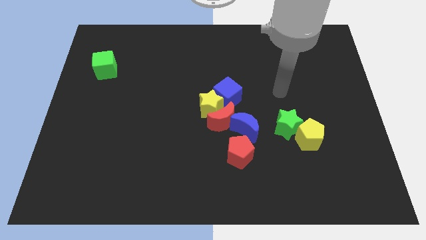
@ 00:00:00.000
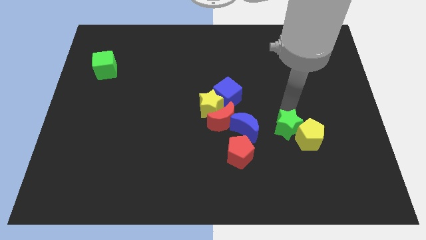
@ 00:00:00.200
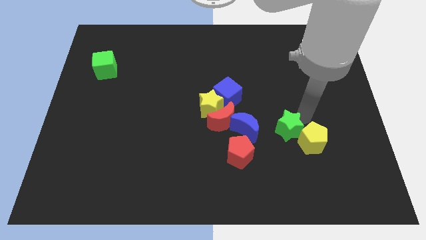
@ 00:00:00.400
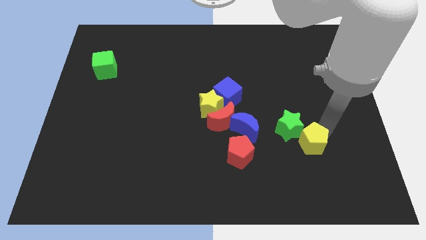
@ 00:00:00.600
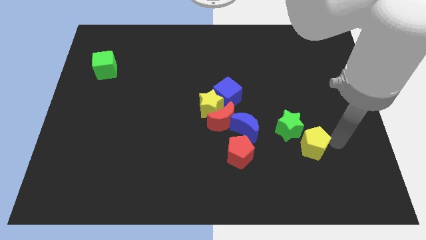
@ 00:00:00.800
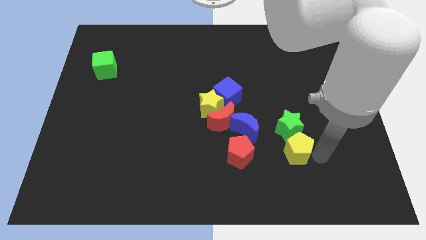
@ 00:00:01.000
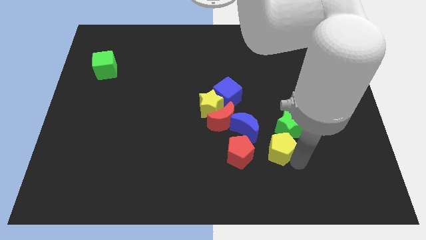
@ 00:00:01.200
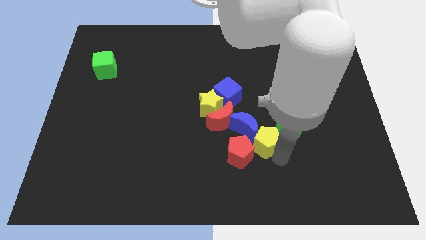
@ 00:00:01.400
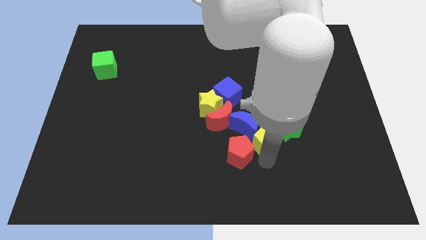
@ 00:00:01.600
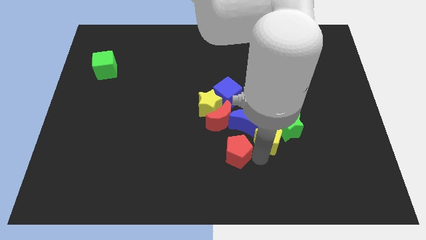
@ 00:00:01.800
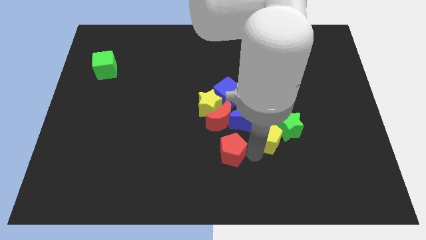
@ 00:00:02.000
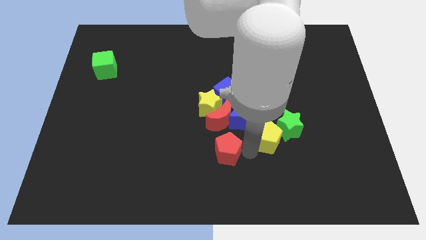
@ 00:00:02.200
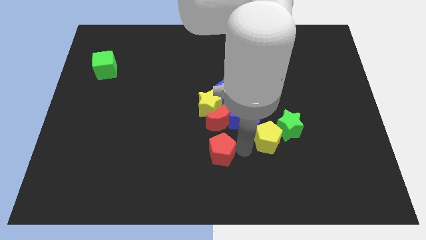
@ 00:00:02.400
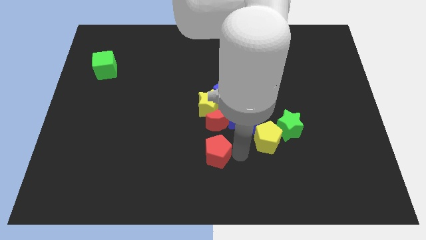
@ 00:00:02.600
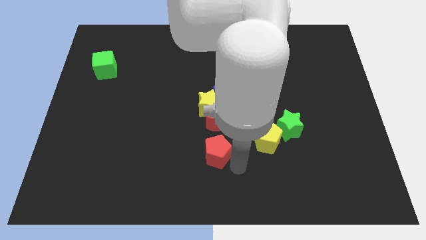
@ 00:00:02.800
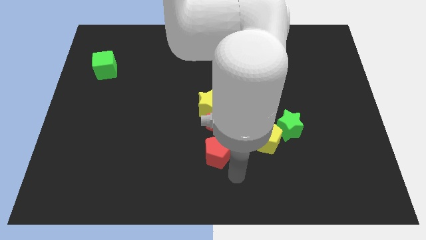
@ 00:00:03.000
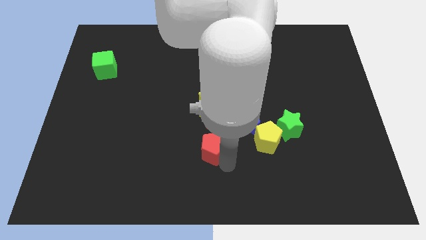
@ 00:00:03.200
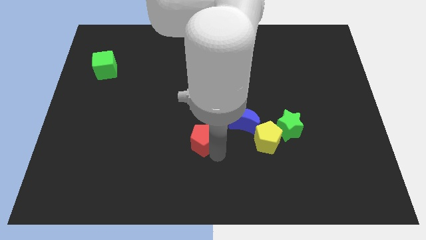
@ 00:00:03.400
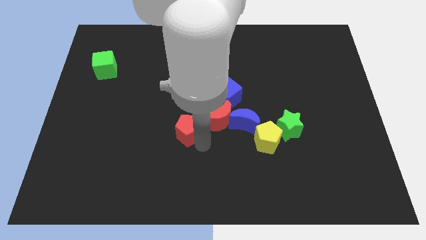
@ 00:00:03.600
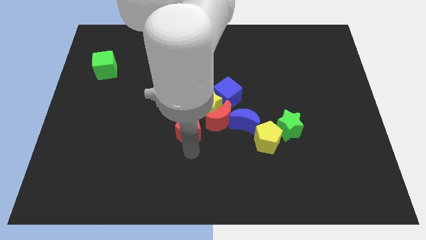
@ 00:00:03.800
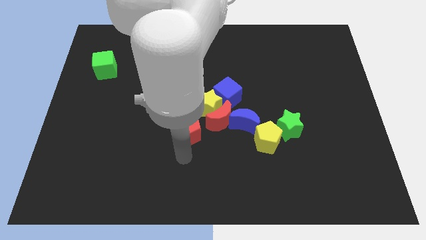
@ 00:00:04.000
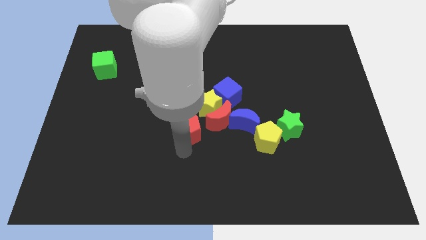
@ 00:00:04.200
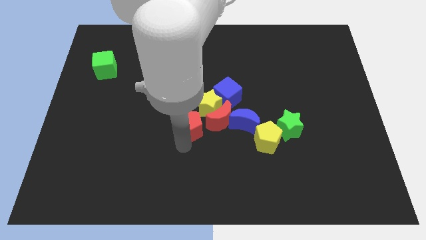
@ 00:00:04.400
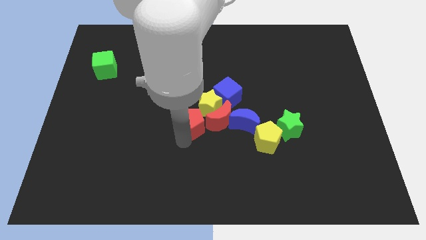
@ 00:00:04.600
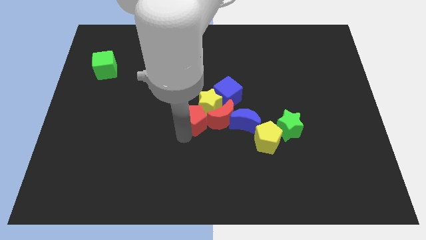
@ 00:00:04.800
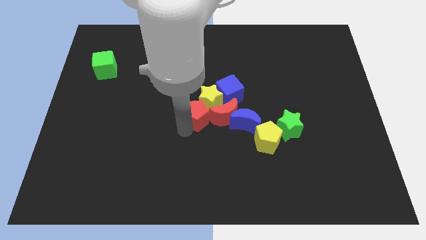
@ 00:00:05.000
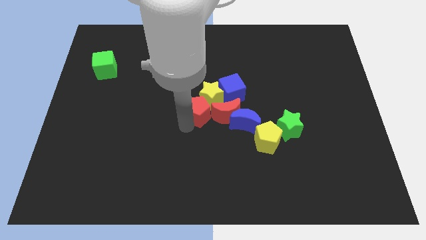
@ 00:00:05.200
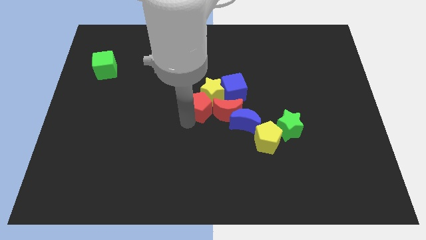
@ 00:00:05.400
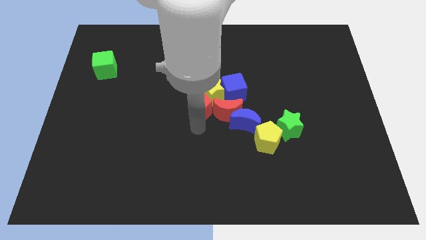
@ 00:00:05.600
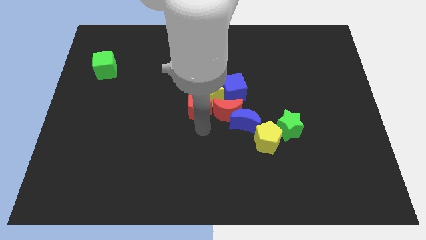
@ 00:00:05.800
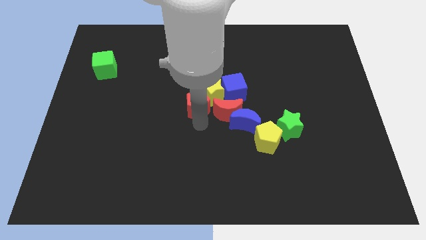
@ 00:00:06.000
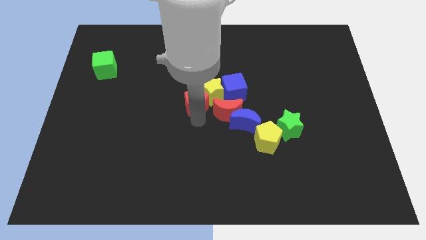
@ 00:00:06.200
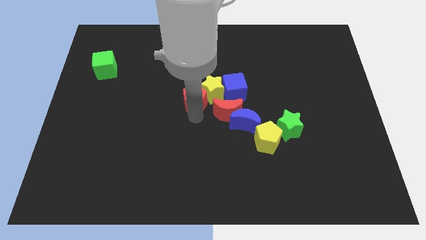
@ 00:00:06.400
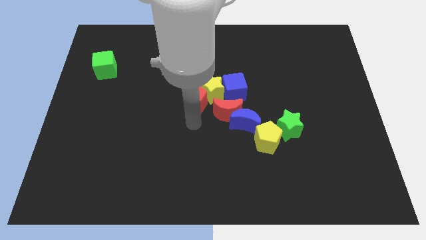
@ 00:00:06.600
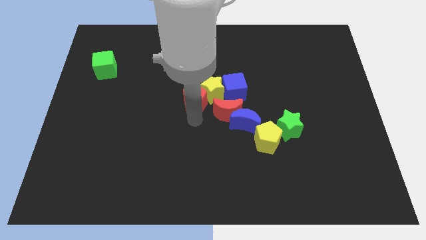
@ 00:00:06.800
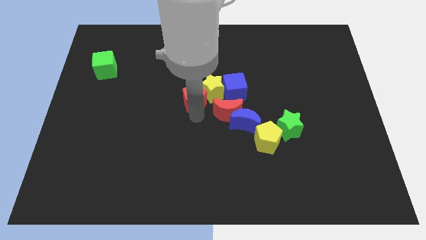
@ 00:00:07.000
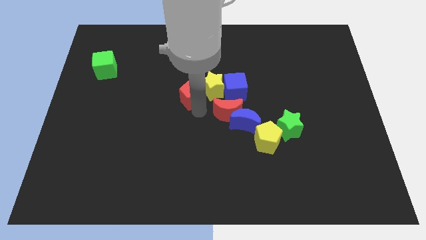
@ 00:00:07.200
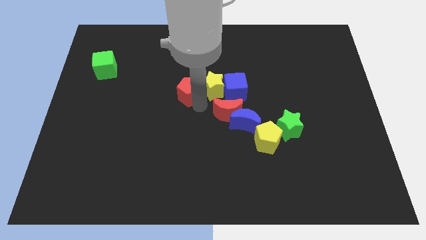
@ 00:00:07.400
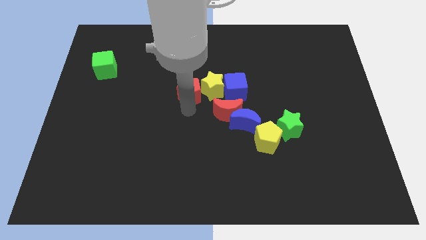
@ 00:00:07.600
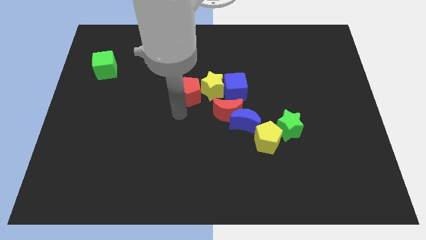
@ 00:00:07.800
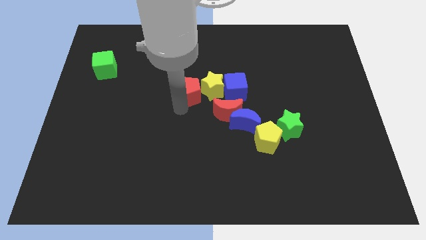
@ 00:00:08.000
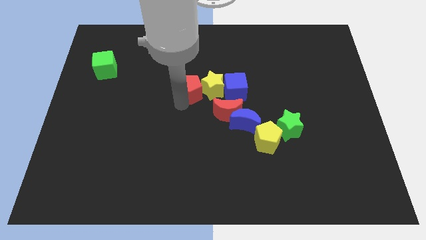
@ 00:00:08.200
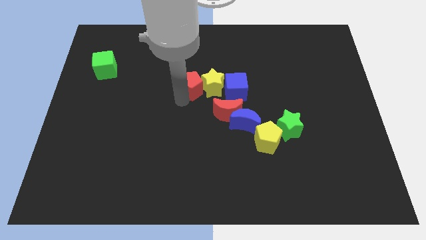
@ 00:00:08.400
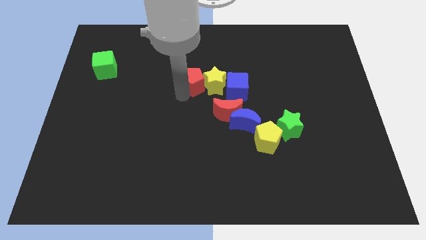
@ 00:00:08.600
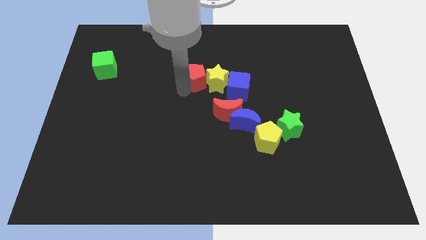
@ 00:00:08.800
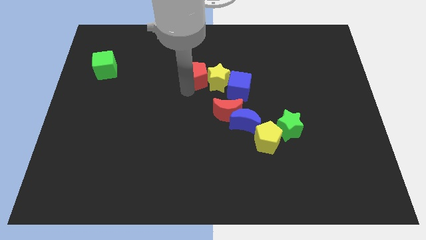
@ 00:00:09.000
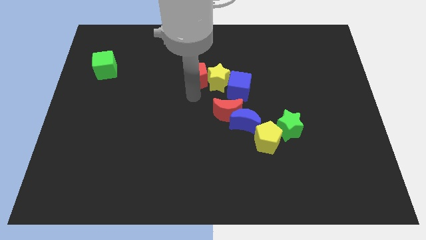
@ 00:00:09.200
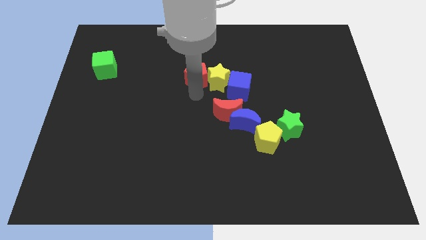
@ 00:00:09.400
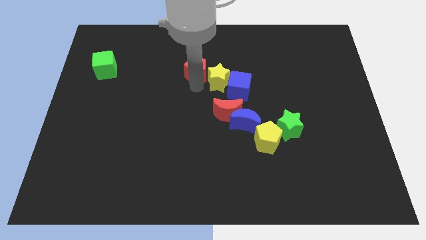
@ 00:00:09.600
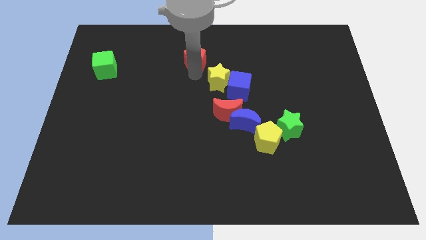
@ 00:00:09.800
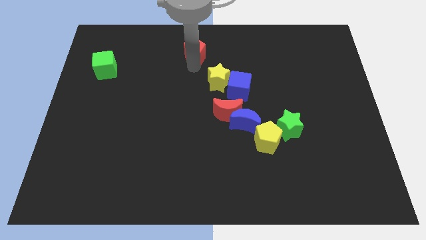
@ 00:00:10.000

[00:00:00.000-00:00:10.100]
slide the red pentagon to the top side

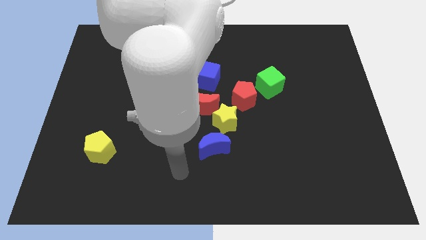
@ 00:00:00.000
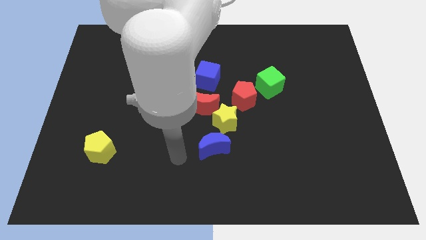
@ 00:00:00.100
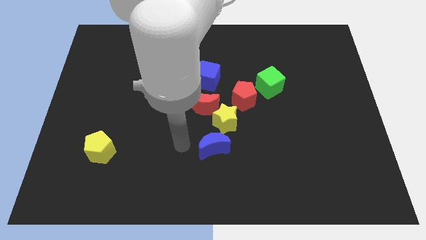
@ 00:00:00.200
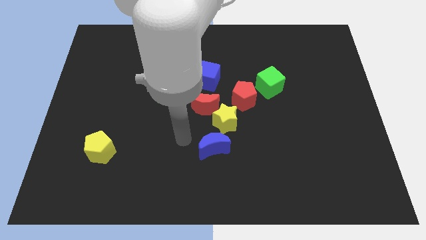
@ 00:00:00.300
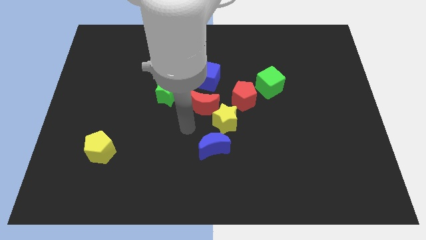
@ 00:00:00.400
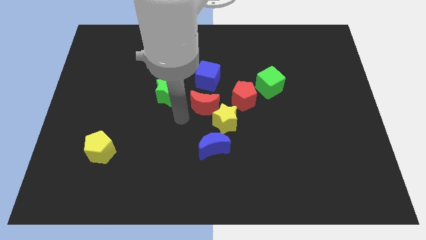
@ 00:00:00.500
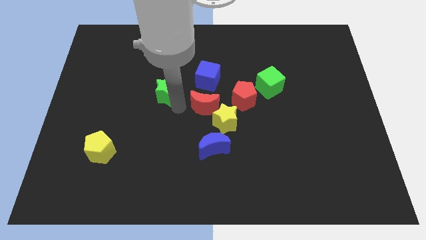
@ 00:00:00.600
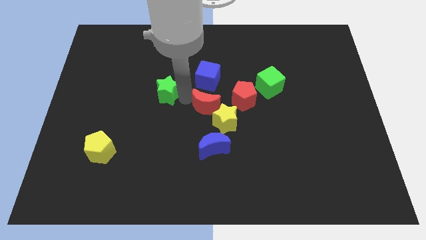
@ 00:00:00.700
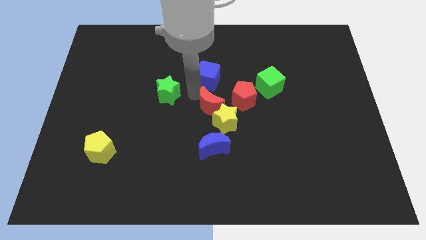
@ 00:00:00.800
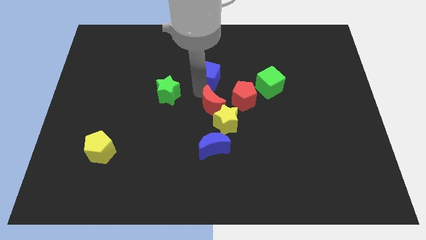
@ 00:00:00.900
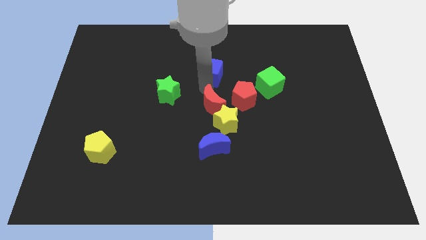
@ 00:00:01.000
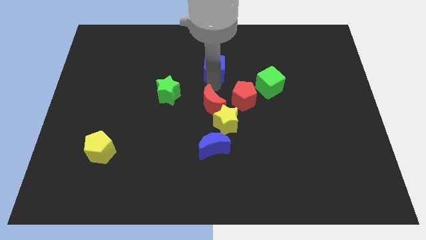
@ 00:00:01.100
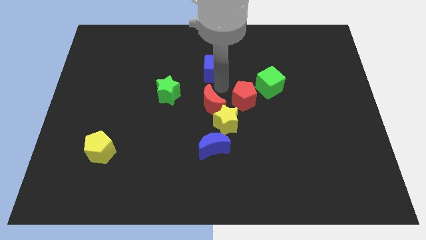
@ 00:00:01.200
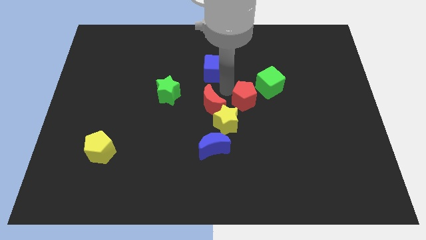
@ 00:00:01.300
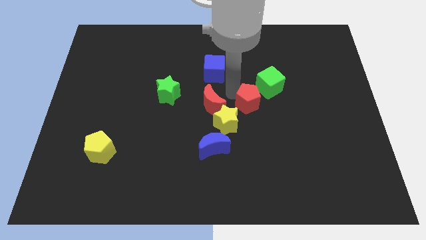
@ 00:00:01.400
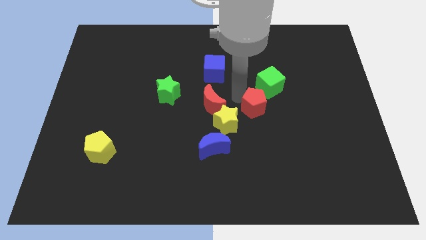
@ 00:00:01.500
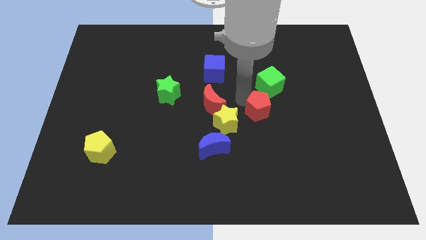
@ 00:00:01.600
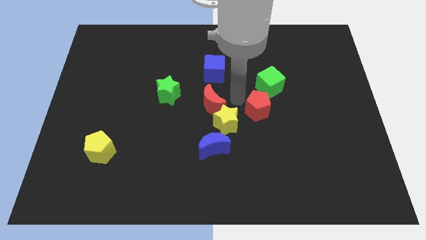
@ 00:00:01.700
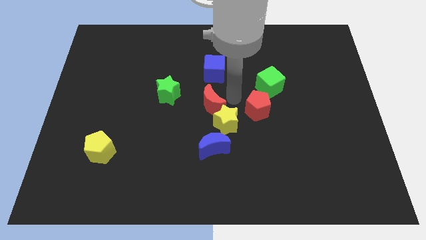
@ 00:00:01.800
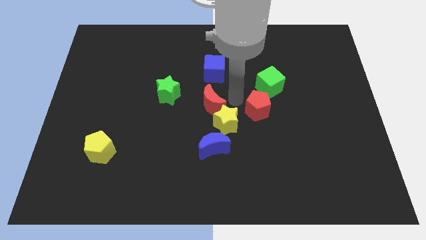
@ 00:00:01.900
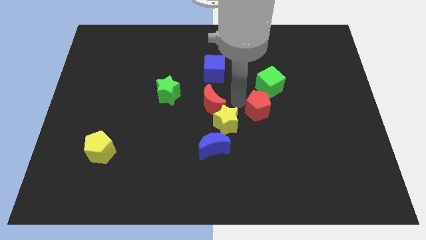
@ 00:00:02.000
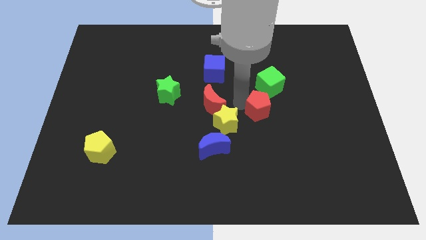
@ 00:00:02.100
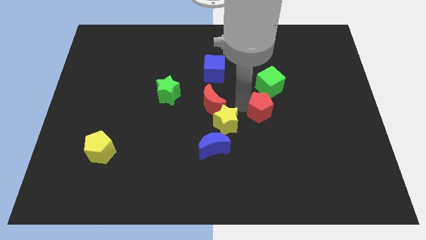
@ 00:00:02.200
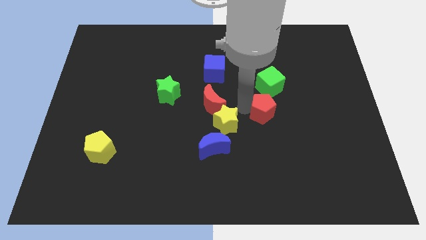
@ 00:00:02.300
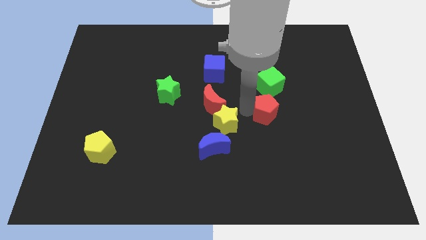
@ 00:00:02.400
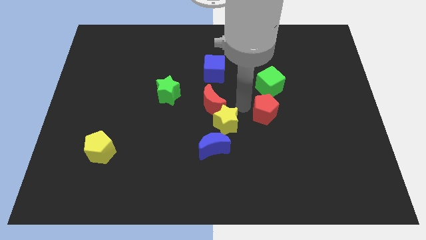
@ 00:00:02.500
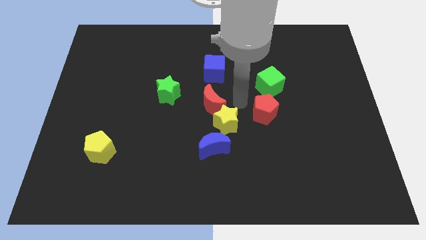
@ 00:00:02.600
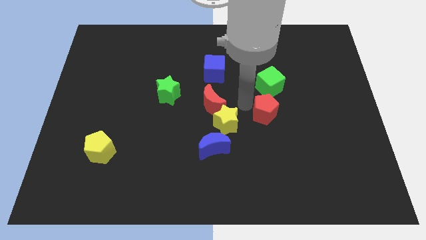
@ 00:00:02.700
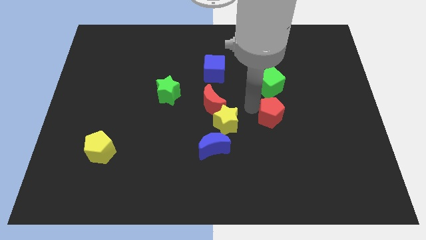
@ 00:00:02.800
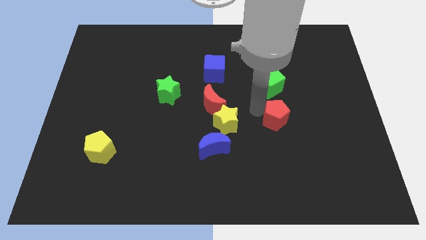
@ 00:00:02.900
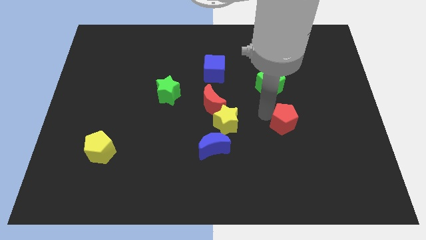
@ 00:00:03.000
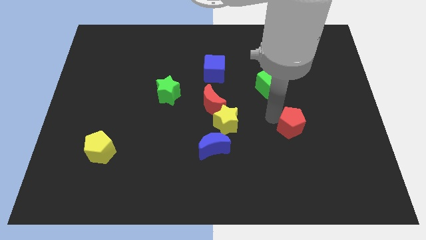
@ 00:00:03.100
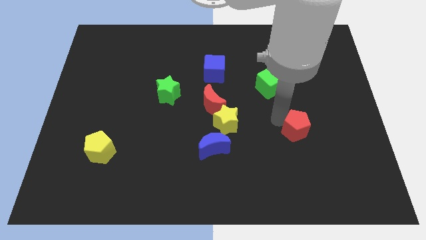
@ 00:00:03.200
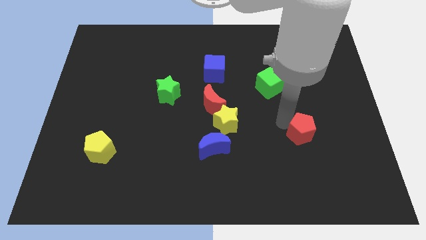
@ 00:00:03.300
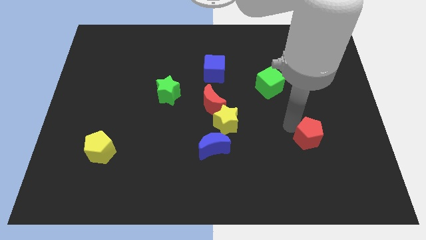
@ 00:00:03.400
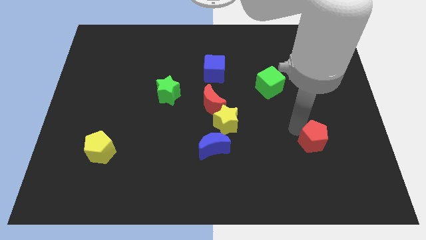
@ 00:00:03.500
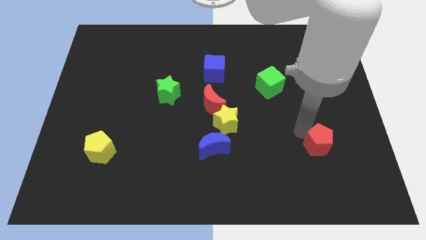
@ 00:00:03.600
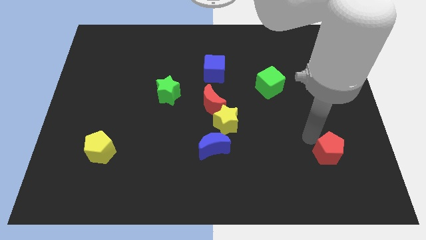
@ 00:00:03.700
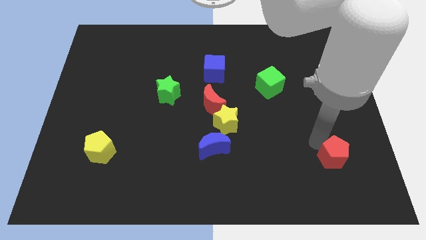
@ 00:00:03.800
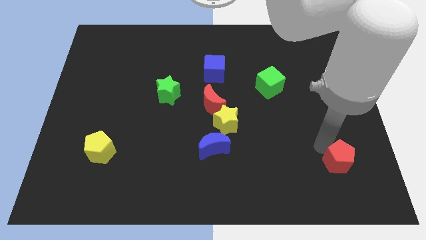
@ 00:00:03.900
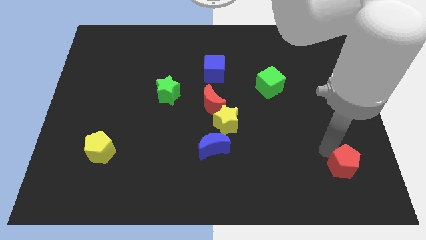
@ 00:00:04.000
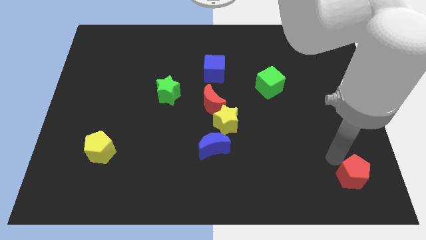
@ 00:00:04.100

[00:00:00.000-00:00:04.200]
push the red pentagon to the bottom right corner
